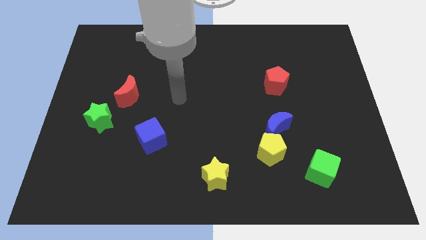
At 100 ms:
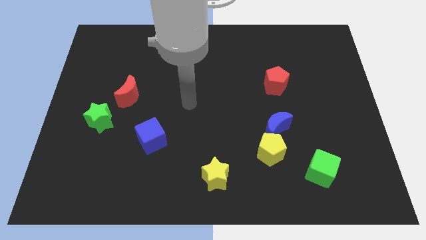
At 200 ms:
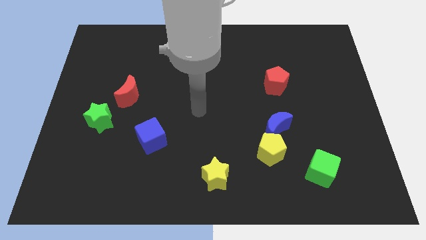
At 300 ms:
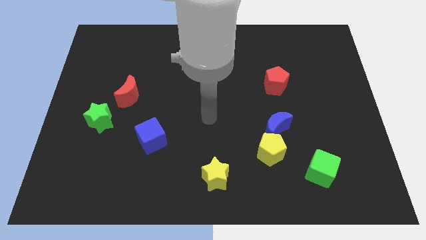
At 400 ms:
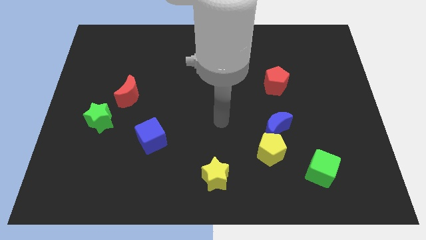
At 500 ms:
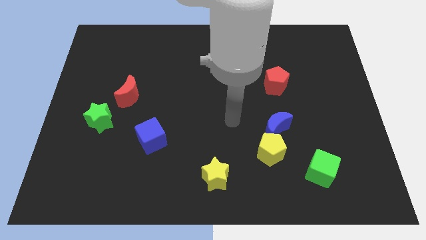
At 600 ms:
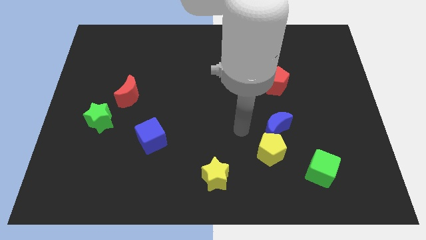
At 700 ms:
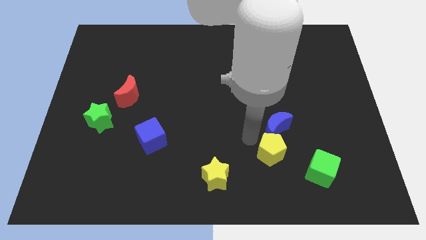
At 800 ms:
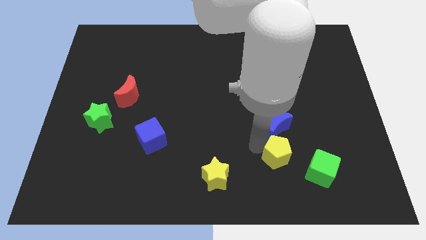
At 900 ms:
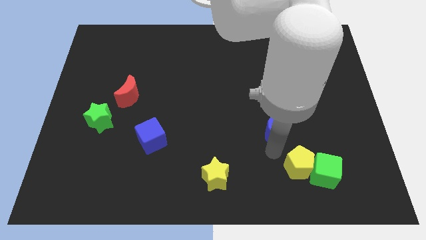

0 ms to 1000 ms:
pull the blue moon apart from the yellow pentagon

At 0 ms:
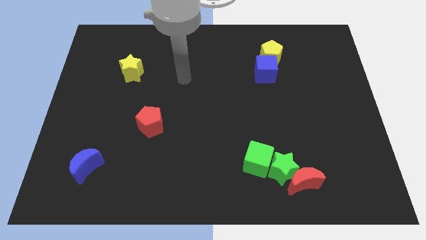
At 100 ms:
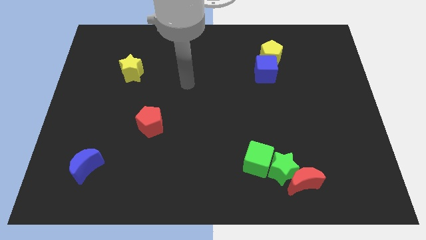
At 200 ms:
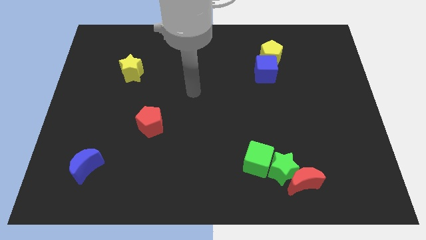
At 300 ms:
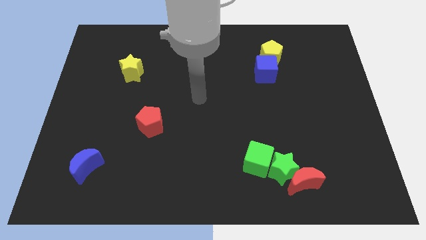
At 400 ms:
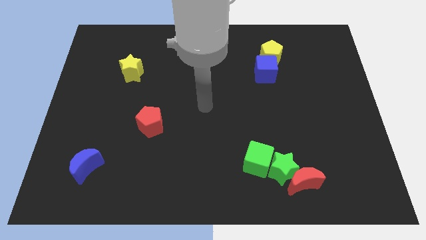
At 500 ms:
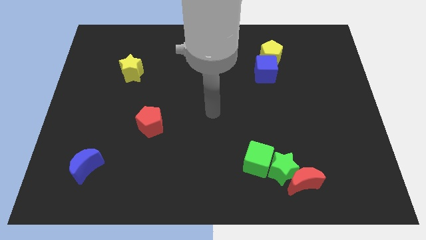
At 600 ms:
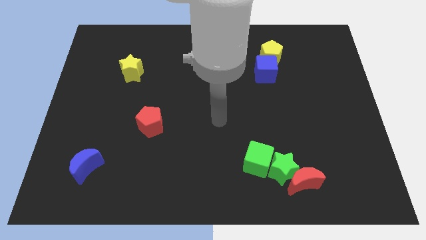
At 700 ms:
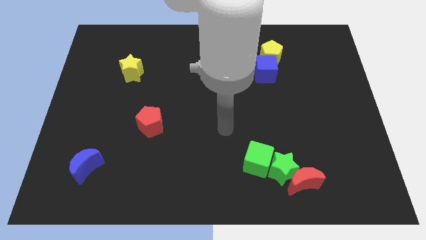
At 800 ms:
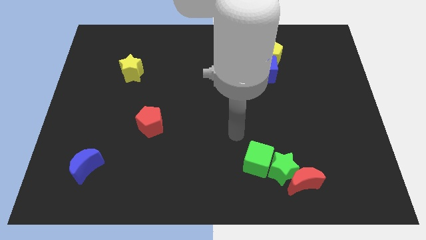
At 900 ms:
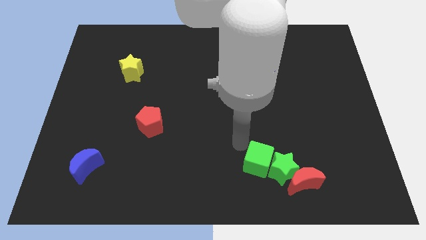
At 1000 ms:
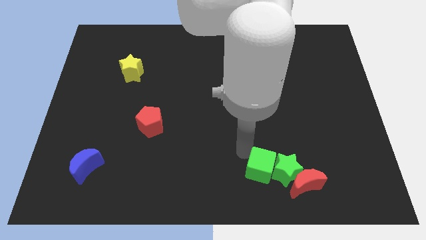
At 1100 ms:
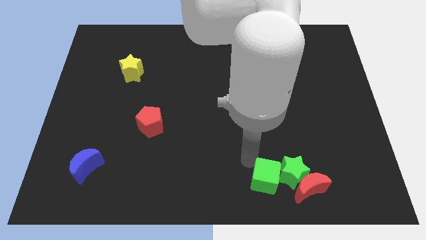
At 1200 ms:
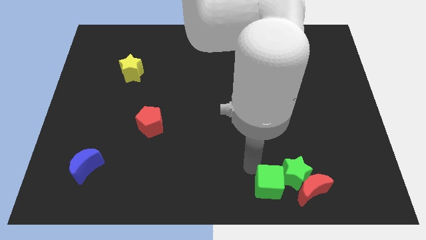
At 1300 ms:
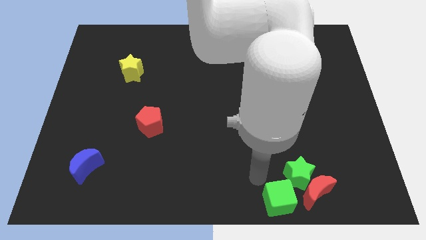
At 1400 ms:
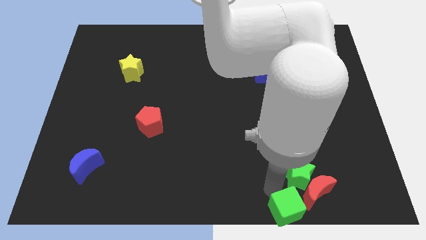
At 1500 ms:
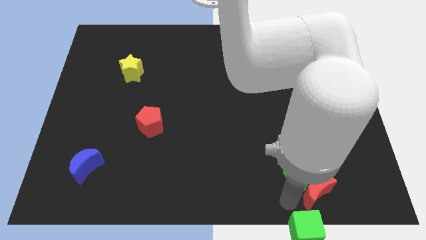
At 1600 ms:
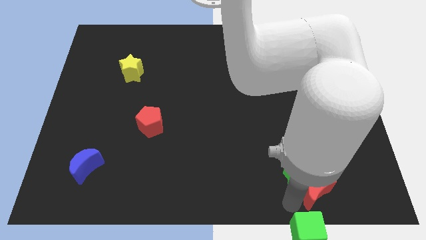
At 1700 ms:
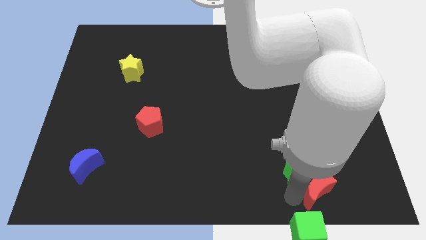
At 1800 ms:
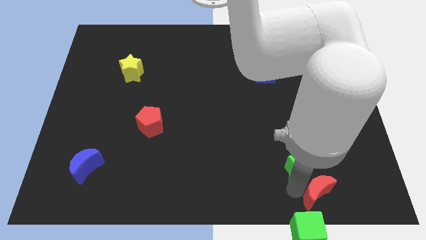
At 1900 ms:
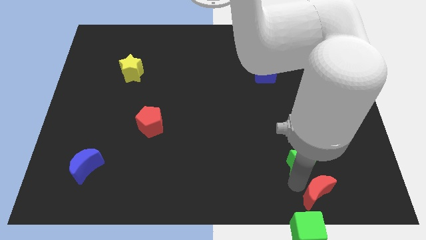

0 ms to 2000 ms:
pull the green star apart from the red moon and green cube

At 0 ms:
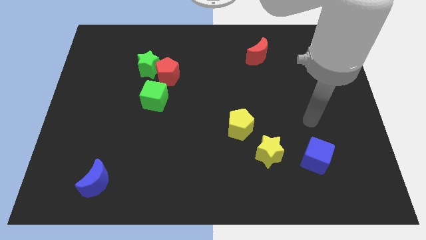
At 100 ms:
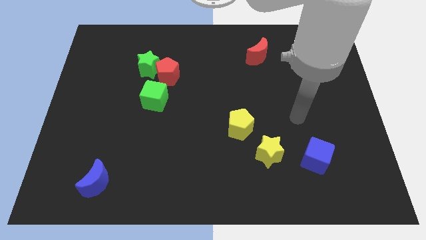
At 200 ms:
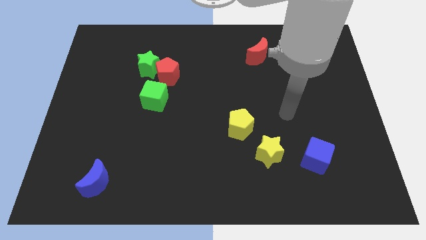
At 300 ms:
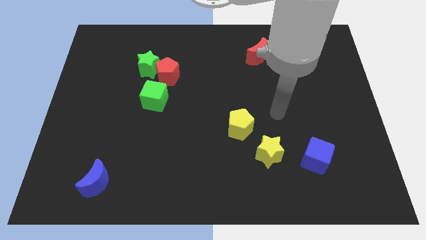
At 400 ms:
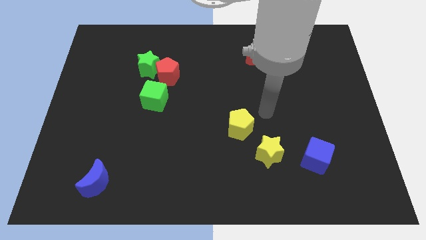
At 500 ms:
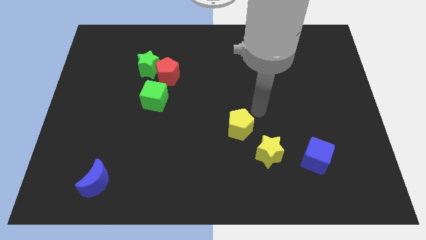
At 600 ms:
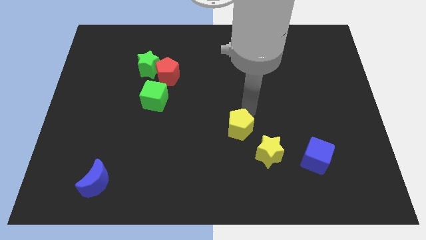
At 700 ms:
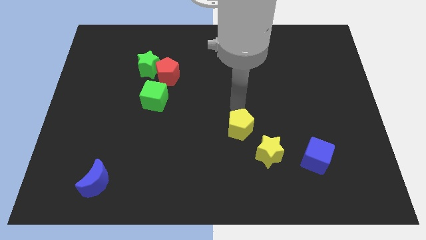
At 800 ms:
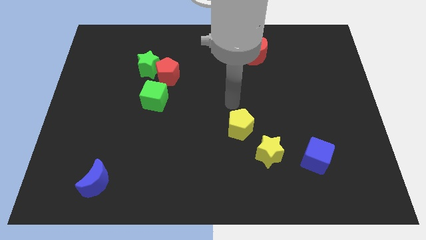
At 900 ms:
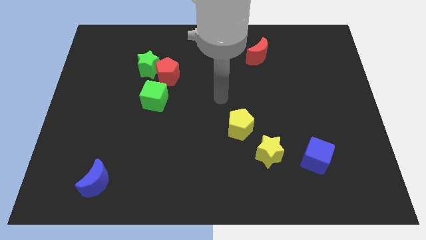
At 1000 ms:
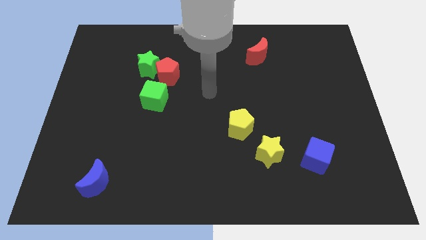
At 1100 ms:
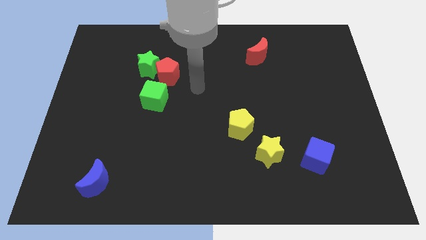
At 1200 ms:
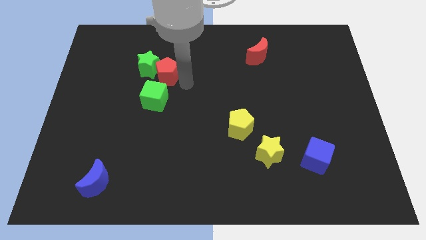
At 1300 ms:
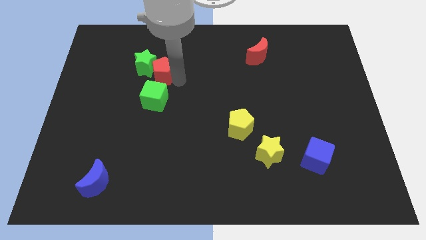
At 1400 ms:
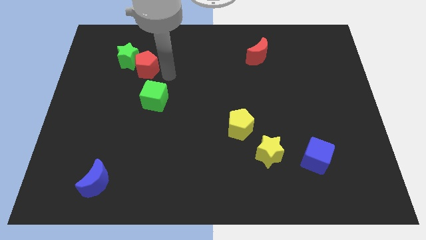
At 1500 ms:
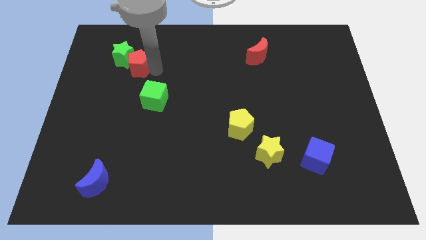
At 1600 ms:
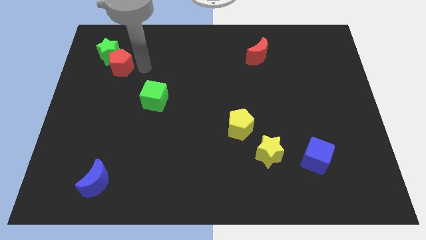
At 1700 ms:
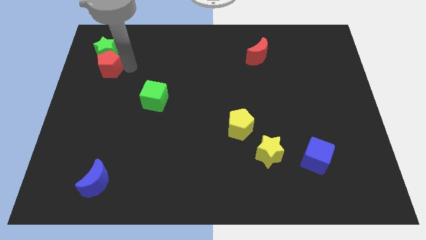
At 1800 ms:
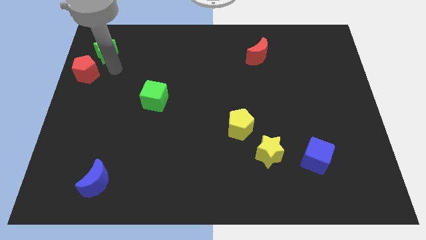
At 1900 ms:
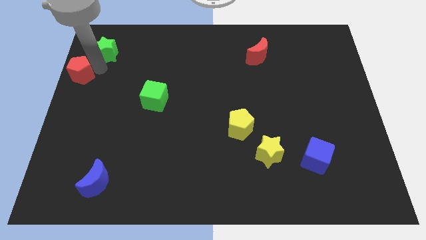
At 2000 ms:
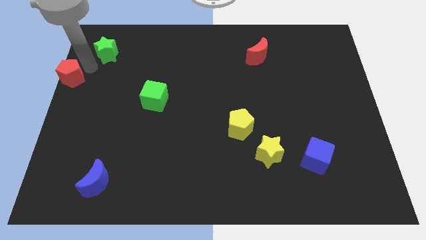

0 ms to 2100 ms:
separate the green star from the red pentagon

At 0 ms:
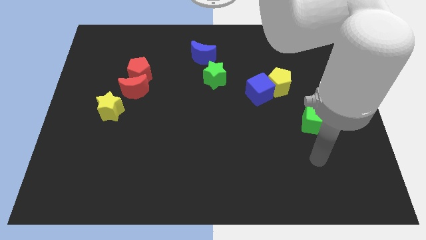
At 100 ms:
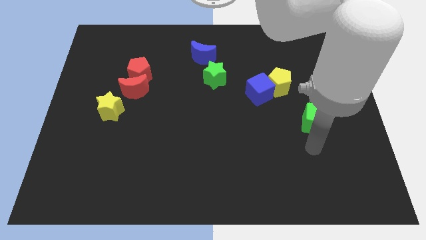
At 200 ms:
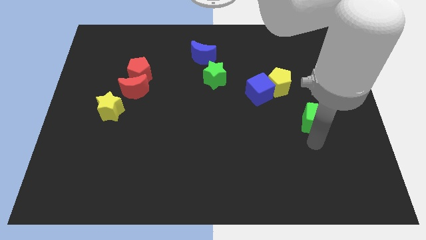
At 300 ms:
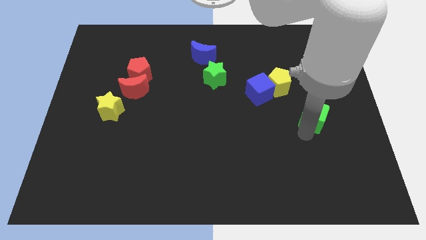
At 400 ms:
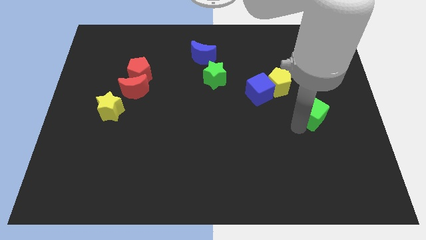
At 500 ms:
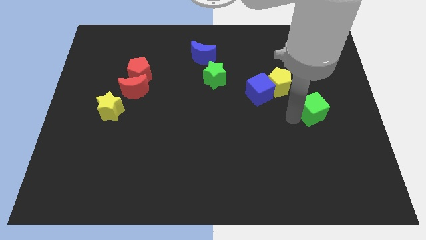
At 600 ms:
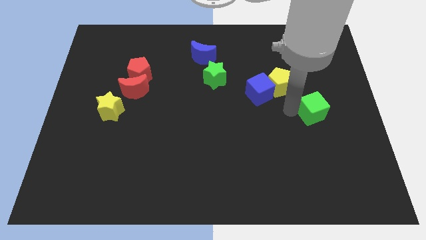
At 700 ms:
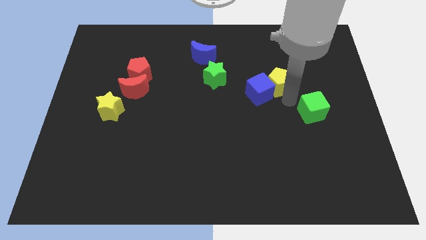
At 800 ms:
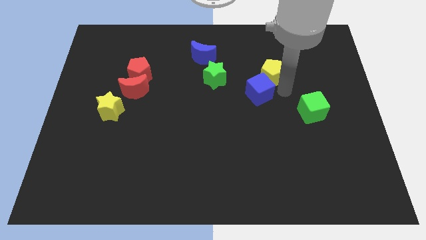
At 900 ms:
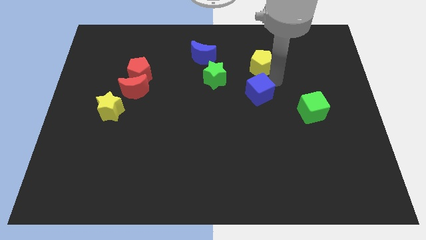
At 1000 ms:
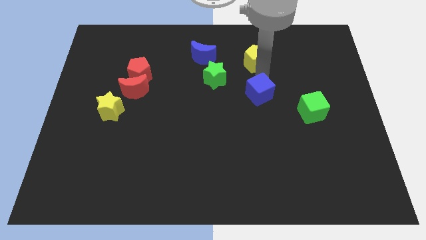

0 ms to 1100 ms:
separate the blue cube from the yellow pentagon

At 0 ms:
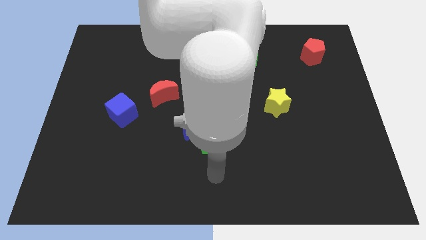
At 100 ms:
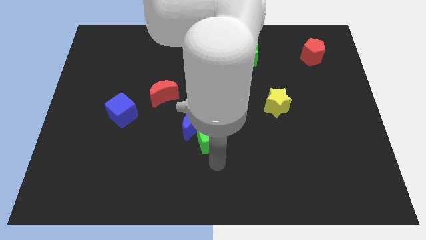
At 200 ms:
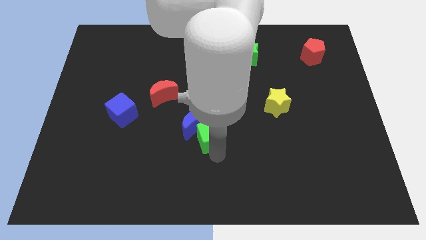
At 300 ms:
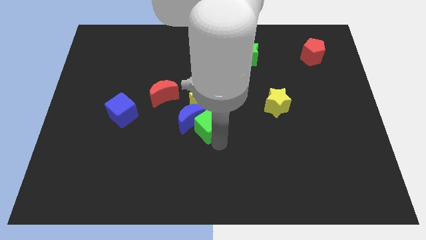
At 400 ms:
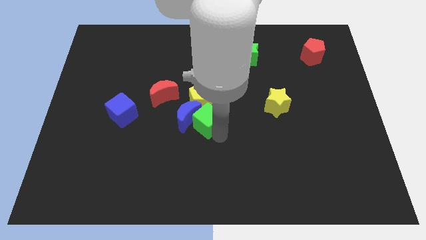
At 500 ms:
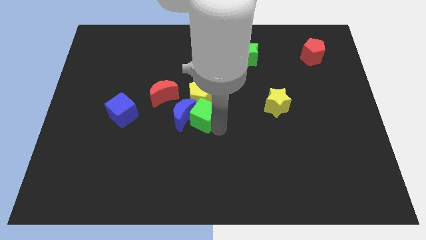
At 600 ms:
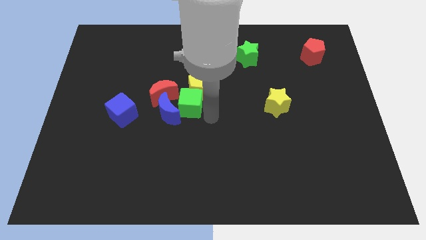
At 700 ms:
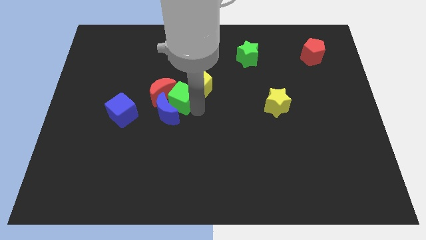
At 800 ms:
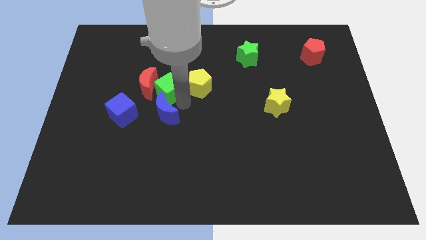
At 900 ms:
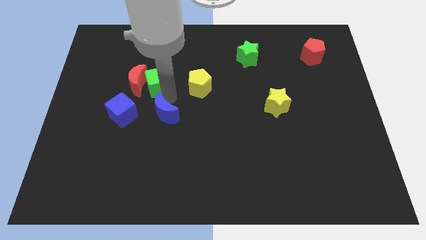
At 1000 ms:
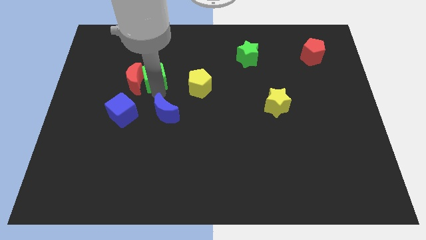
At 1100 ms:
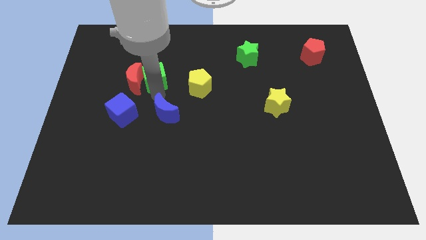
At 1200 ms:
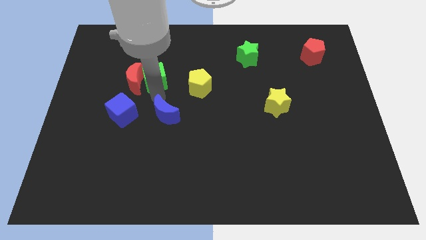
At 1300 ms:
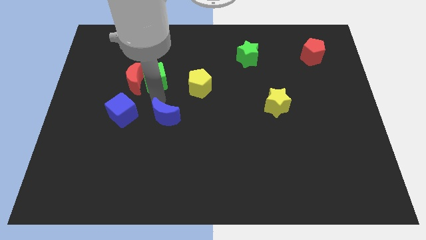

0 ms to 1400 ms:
move the blue moon away from the green cube and yellow pentagon

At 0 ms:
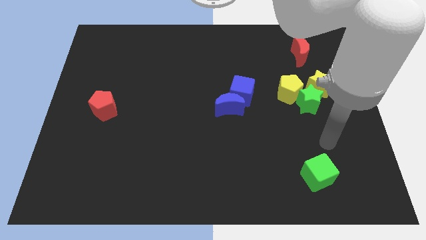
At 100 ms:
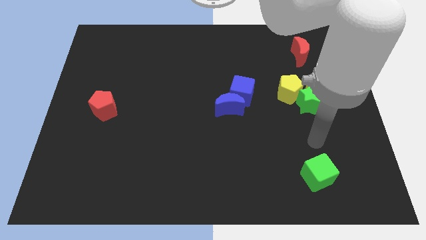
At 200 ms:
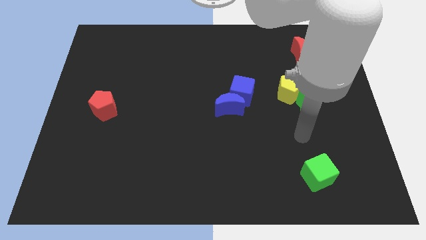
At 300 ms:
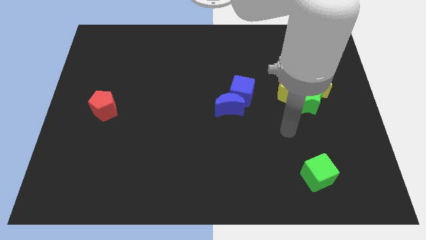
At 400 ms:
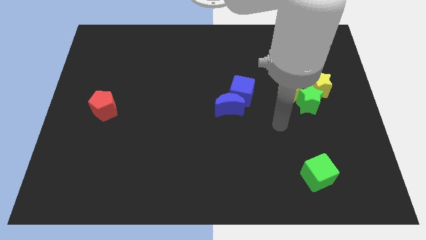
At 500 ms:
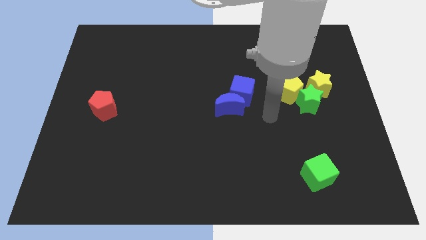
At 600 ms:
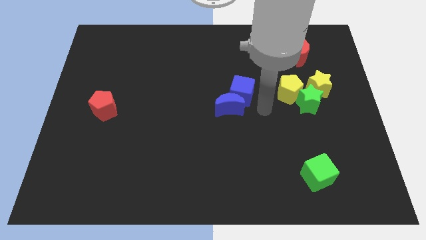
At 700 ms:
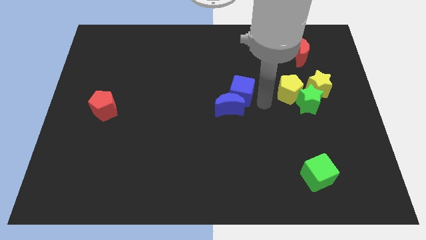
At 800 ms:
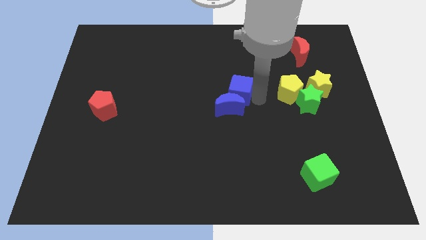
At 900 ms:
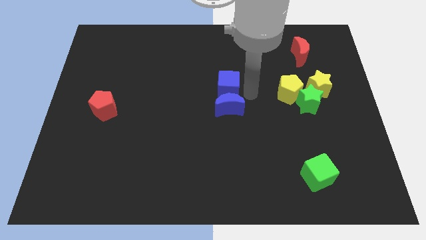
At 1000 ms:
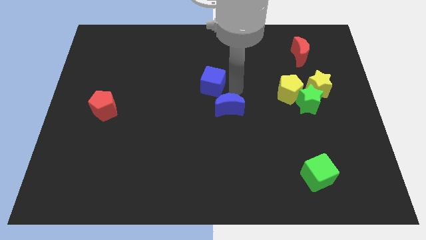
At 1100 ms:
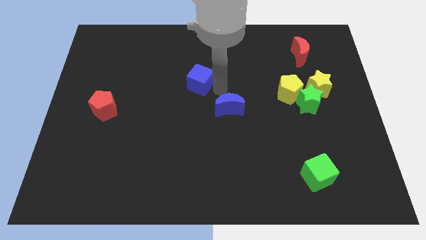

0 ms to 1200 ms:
move the blue moon away from the blue cube

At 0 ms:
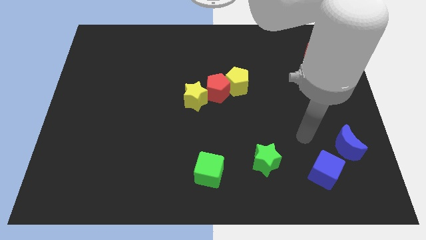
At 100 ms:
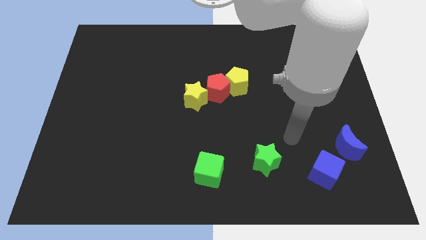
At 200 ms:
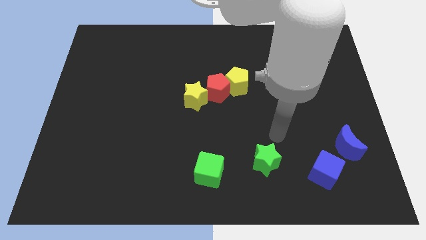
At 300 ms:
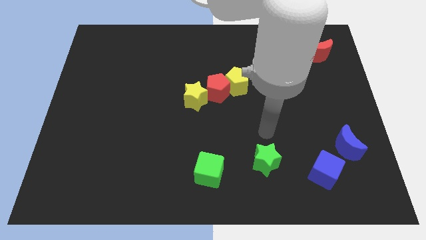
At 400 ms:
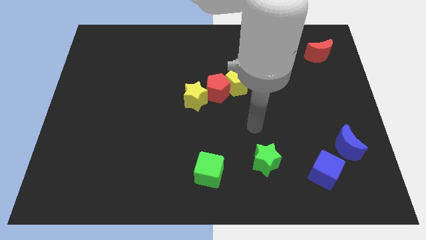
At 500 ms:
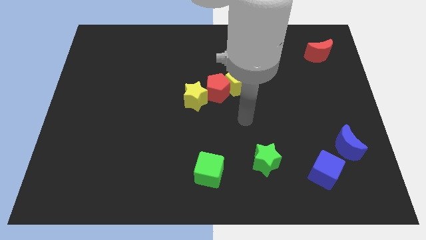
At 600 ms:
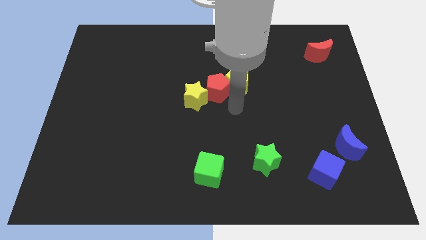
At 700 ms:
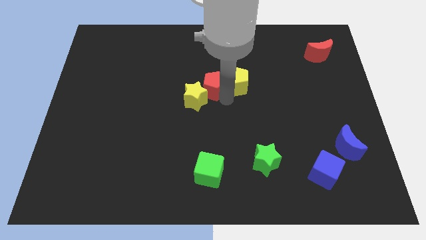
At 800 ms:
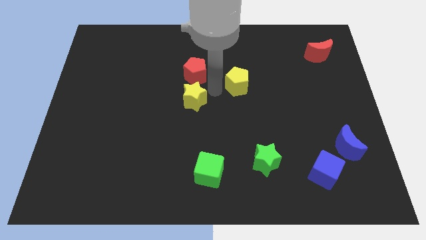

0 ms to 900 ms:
separate the yellow pentagon from the red pentagon
